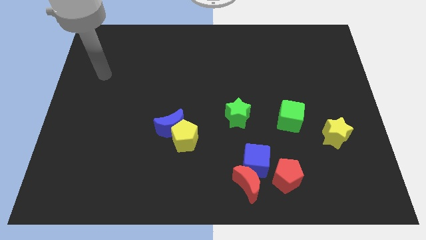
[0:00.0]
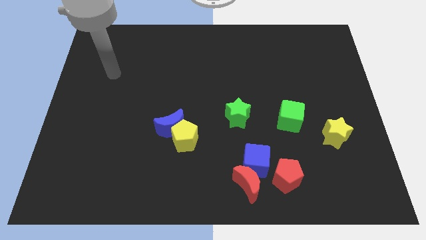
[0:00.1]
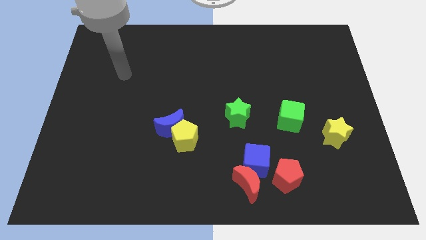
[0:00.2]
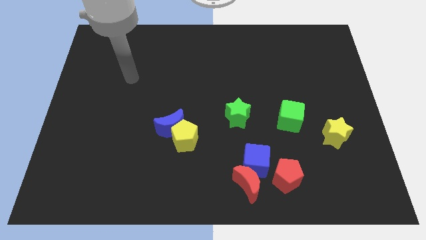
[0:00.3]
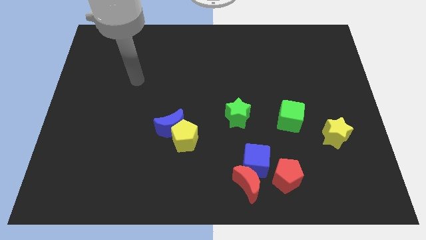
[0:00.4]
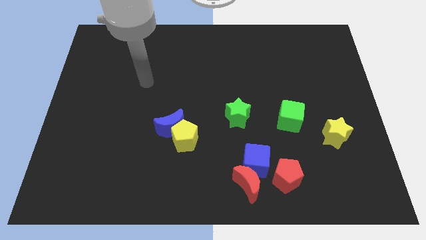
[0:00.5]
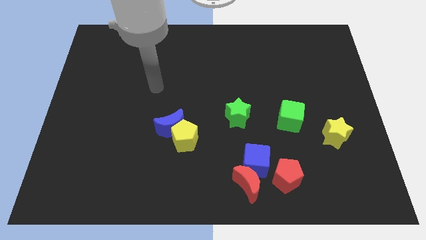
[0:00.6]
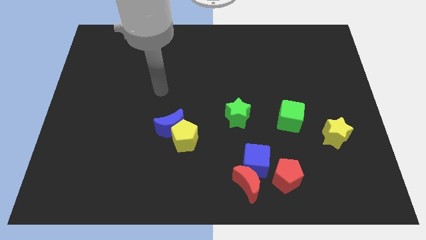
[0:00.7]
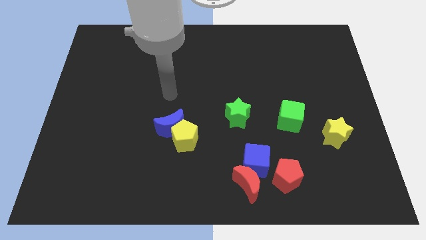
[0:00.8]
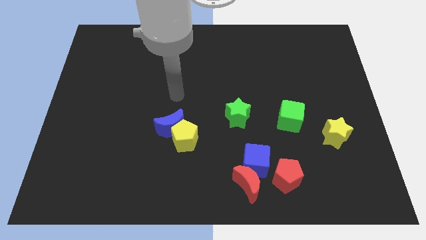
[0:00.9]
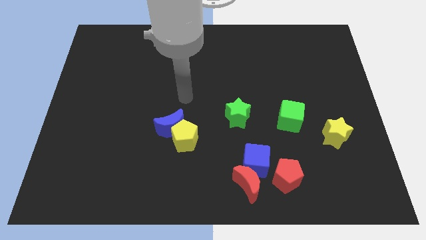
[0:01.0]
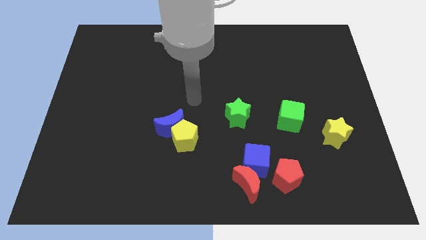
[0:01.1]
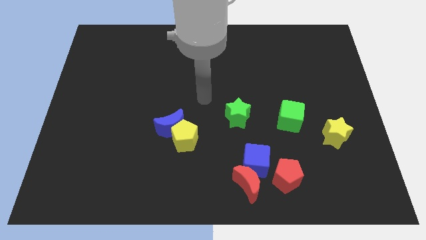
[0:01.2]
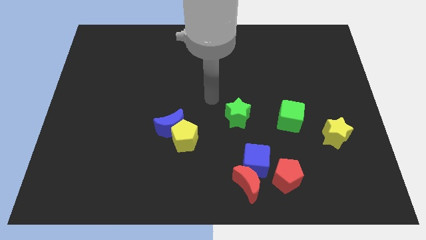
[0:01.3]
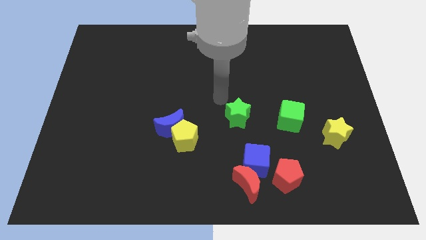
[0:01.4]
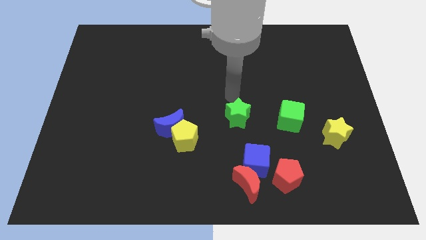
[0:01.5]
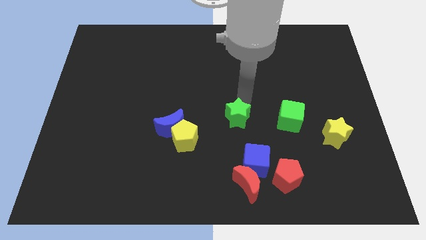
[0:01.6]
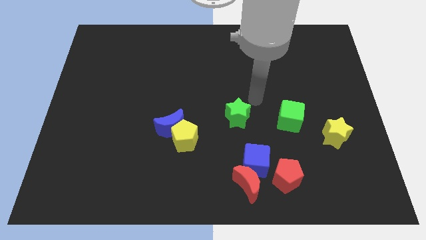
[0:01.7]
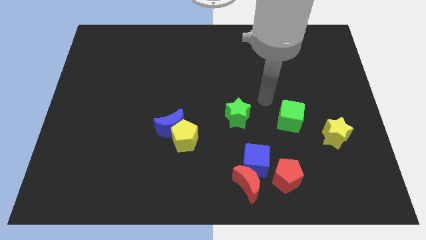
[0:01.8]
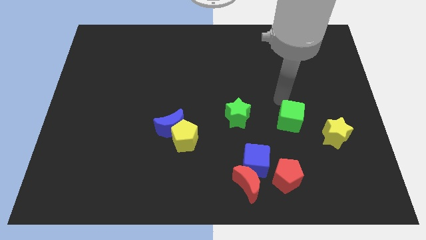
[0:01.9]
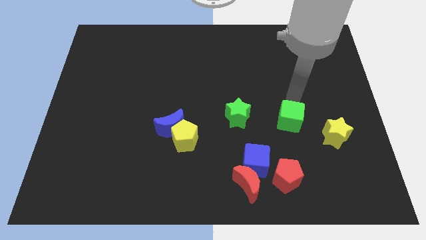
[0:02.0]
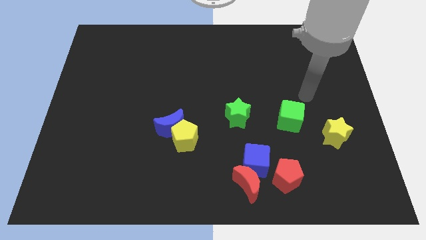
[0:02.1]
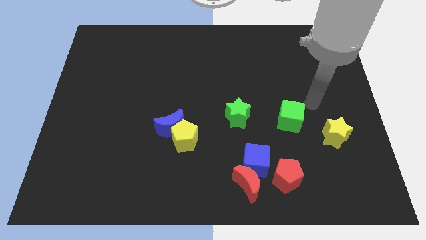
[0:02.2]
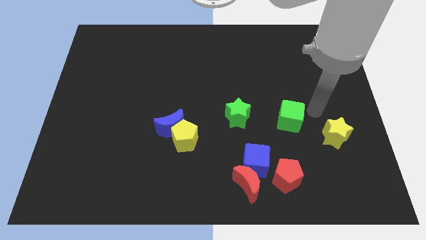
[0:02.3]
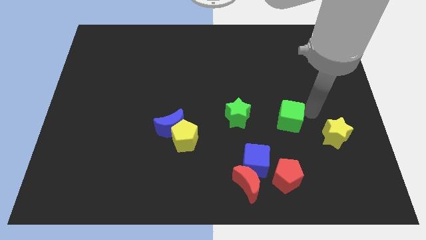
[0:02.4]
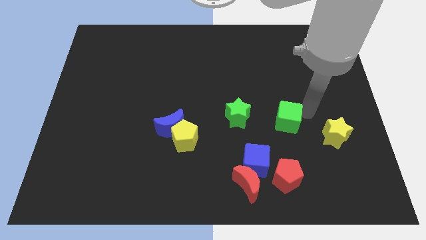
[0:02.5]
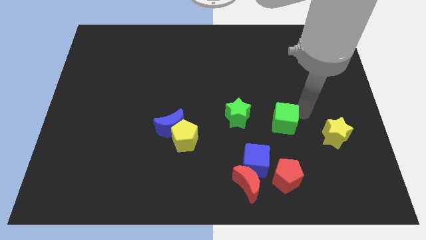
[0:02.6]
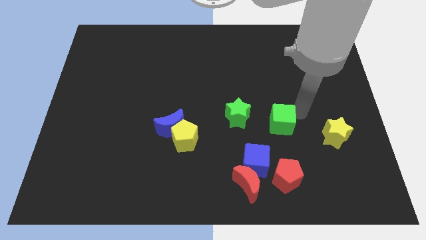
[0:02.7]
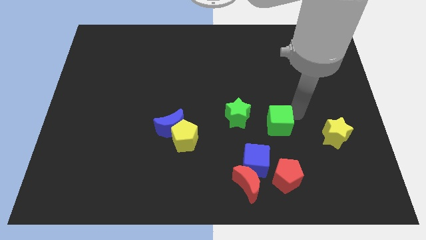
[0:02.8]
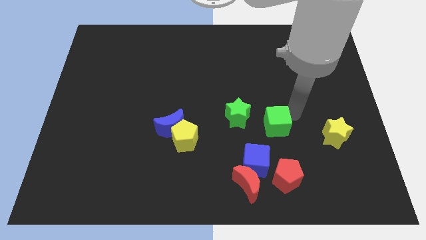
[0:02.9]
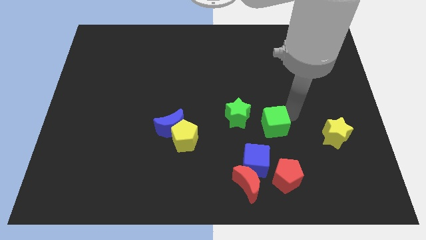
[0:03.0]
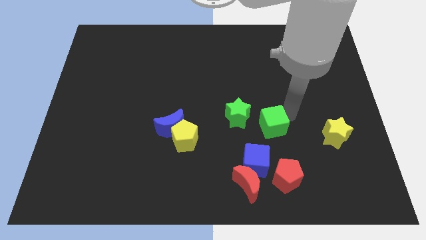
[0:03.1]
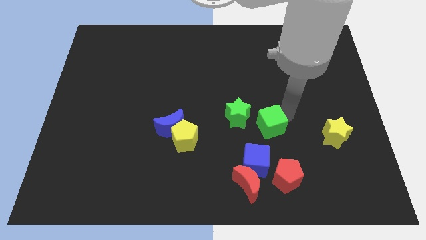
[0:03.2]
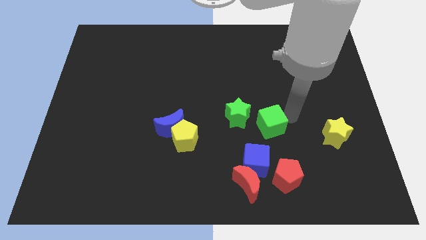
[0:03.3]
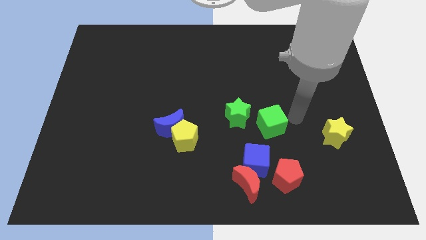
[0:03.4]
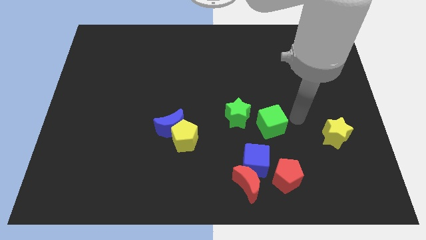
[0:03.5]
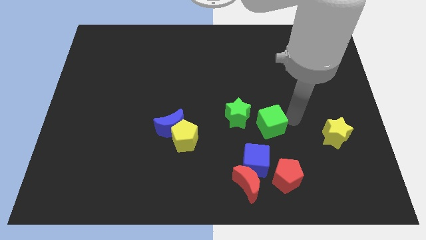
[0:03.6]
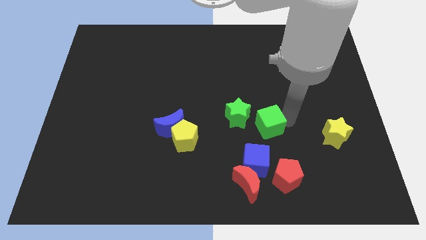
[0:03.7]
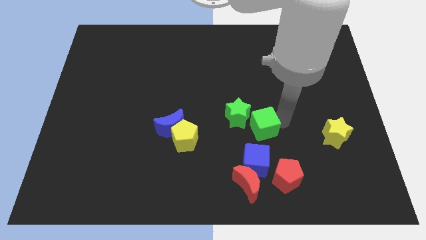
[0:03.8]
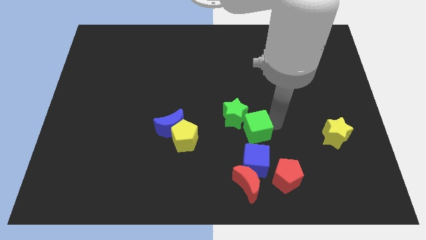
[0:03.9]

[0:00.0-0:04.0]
move the green cube somewhat downwards and to the left

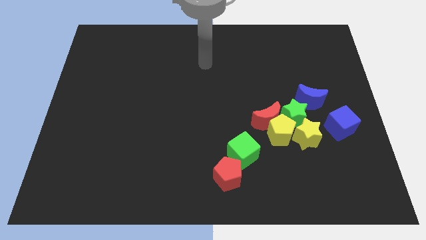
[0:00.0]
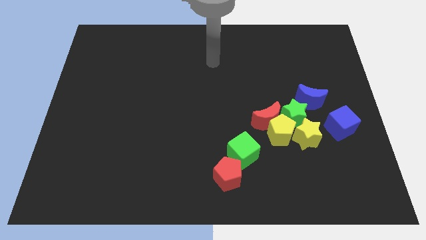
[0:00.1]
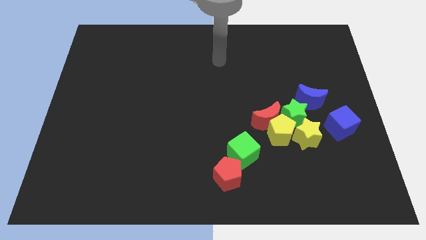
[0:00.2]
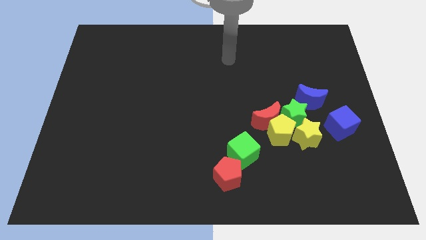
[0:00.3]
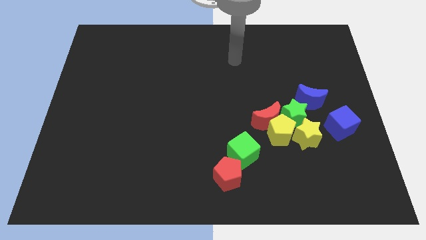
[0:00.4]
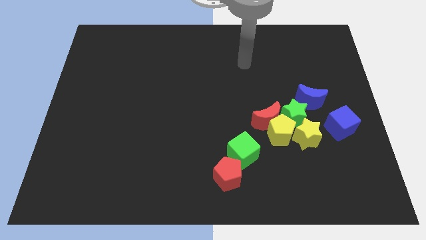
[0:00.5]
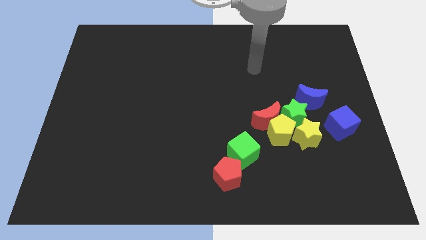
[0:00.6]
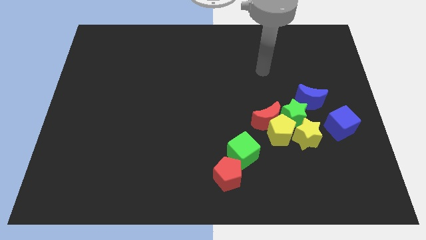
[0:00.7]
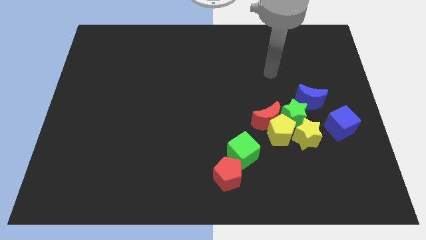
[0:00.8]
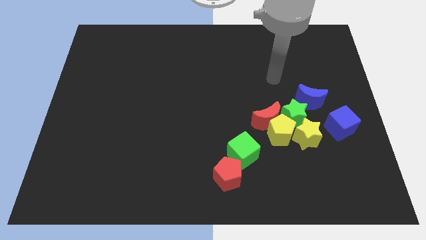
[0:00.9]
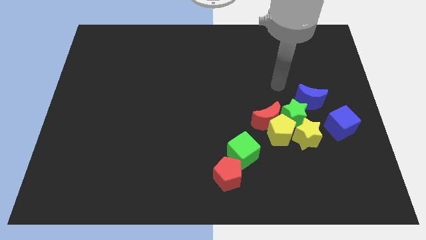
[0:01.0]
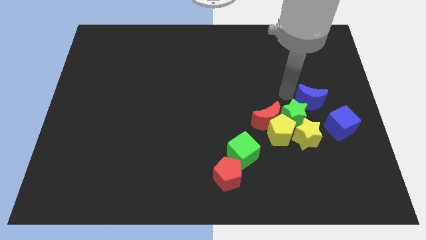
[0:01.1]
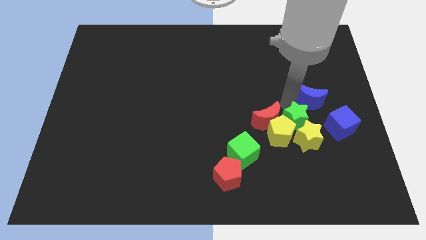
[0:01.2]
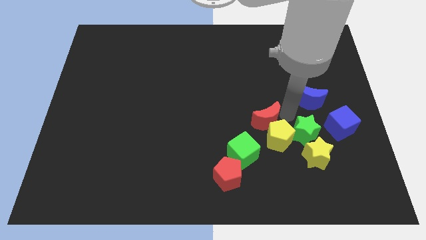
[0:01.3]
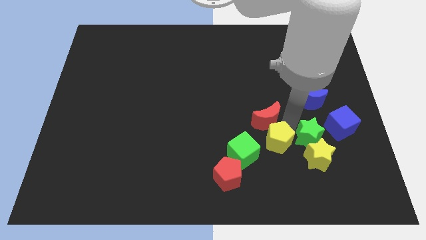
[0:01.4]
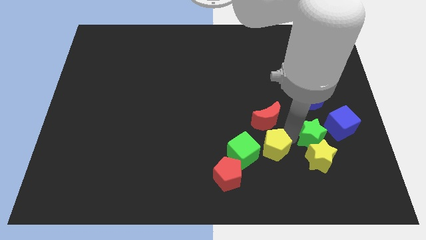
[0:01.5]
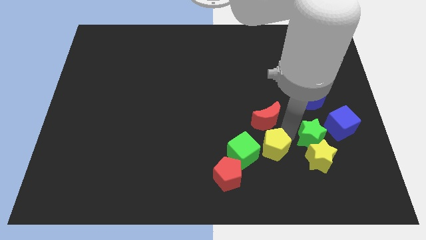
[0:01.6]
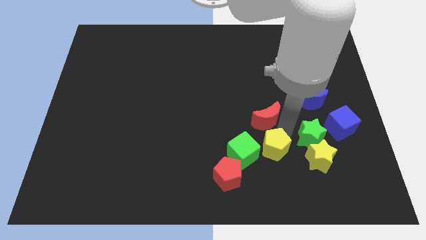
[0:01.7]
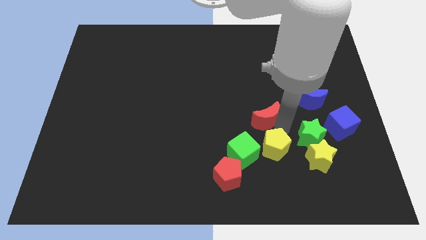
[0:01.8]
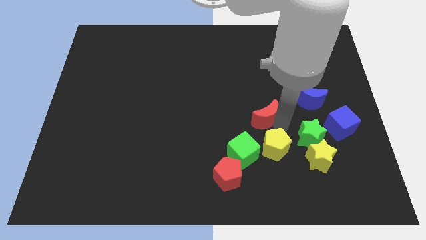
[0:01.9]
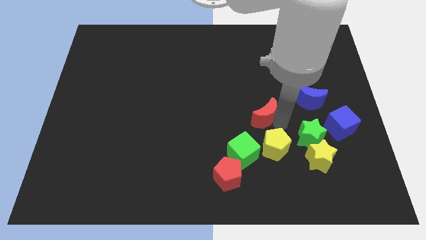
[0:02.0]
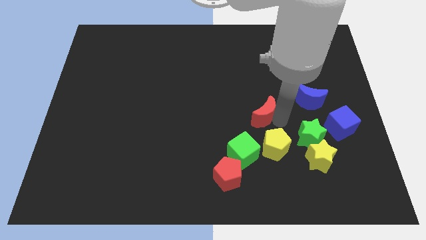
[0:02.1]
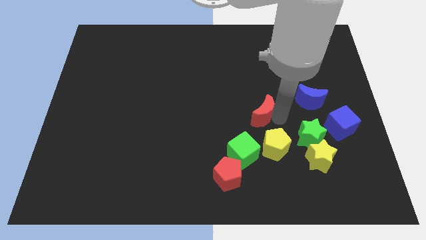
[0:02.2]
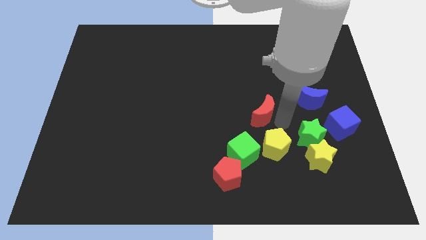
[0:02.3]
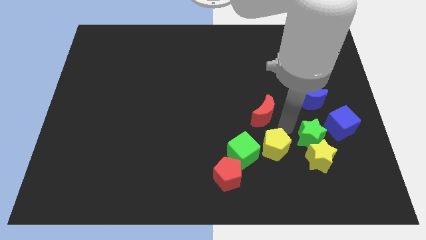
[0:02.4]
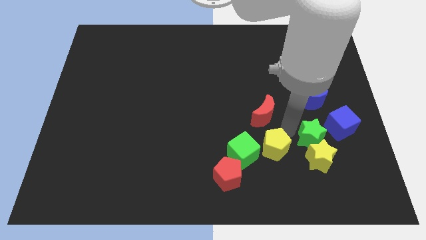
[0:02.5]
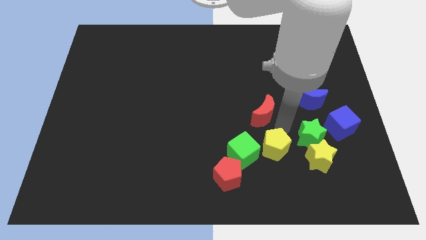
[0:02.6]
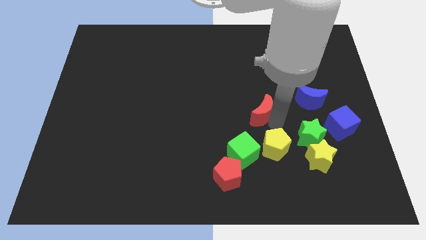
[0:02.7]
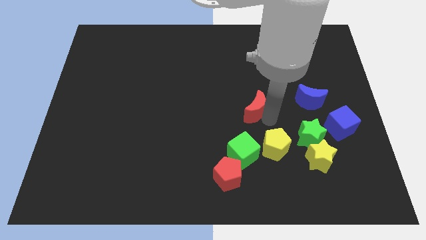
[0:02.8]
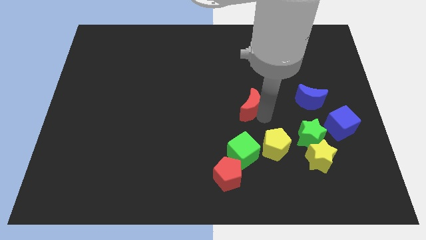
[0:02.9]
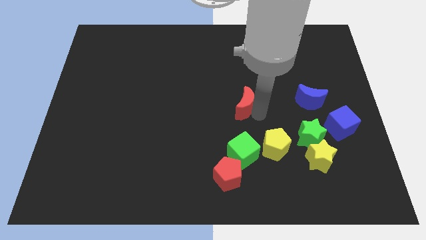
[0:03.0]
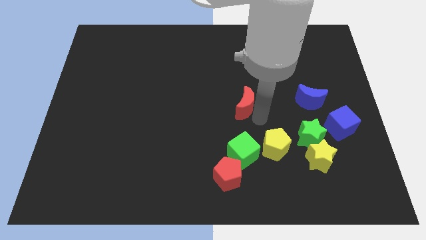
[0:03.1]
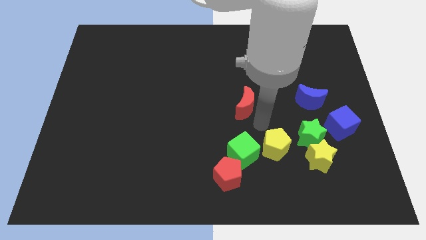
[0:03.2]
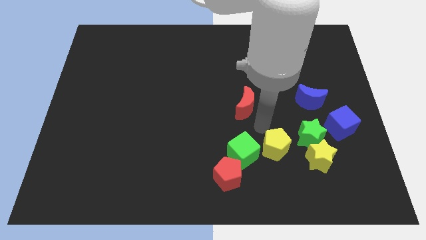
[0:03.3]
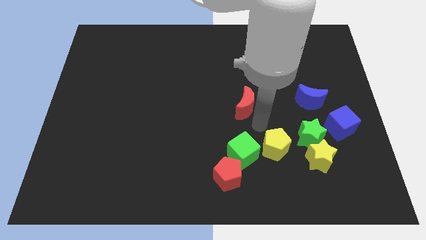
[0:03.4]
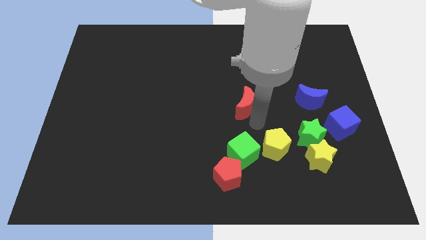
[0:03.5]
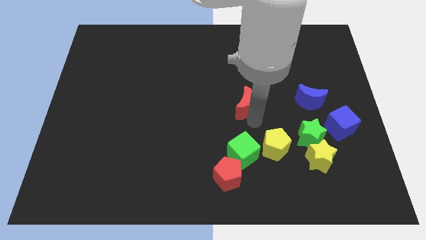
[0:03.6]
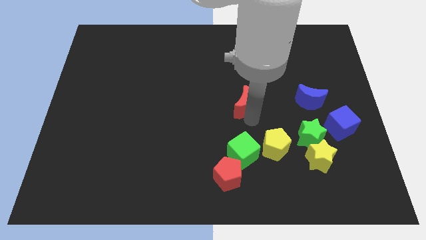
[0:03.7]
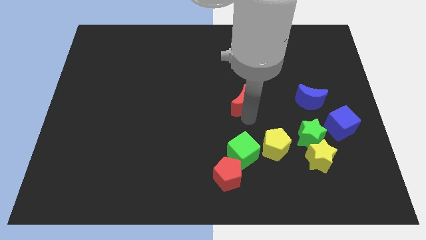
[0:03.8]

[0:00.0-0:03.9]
slightly slide the red moon diagonally up and to the left

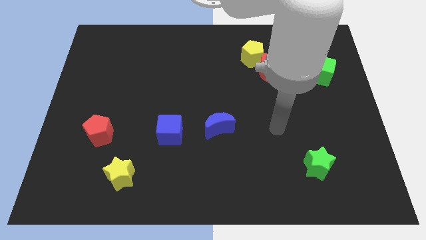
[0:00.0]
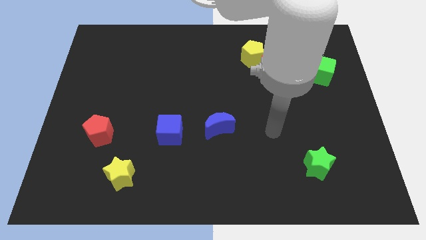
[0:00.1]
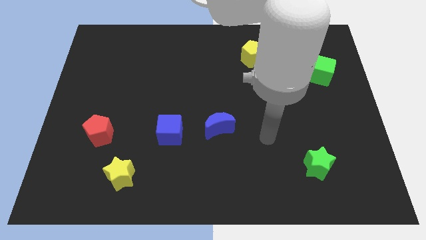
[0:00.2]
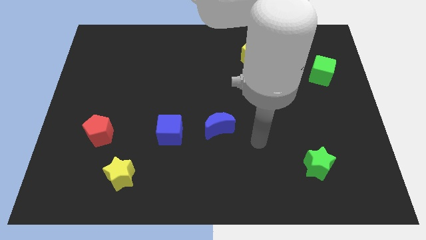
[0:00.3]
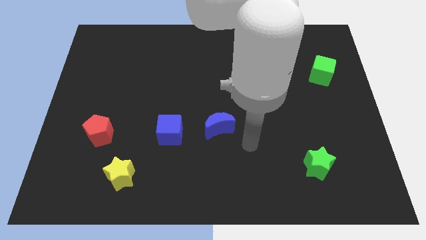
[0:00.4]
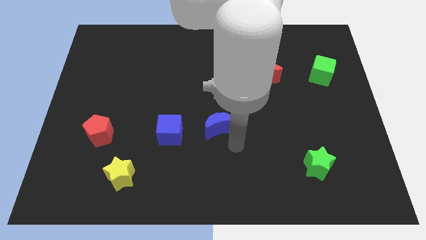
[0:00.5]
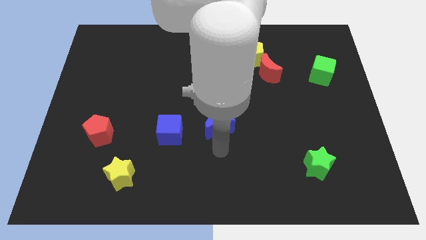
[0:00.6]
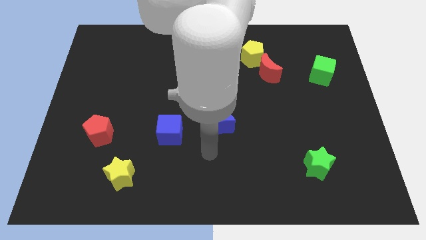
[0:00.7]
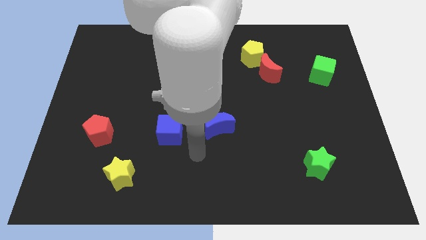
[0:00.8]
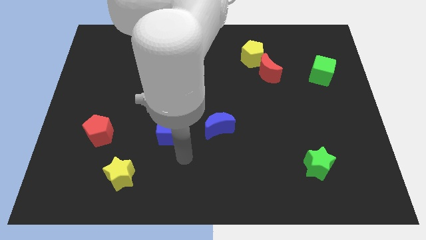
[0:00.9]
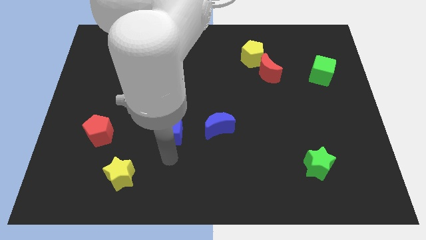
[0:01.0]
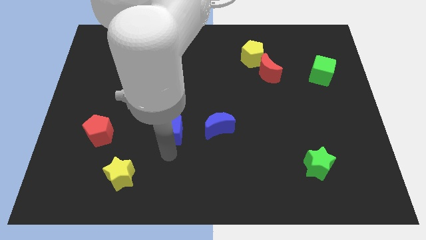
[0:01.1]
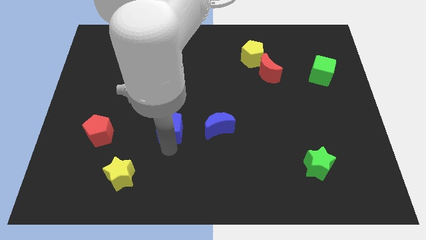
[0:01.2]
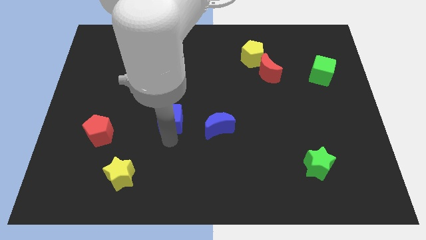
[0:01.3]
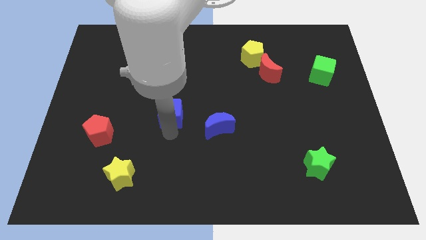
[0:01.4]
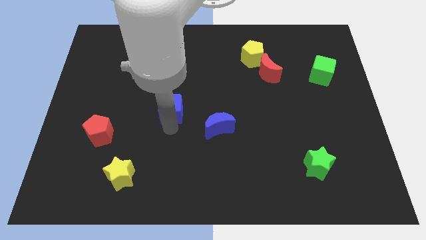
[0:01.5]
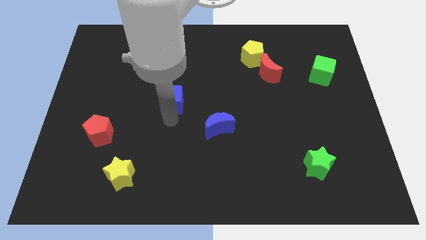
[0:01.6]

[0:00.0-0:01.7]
slide the blue cube somewhat upwards
